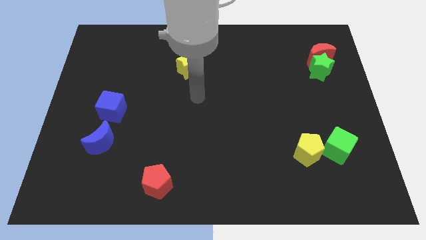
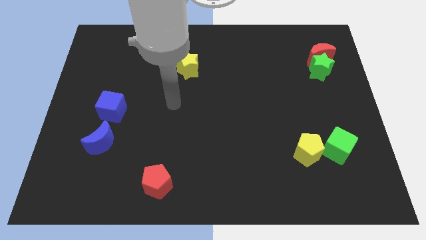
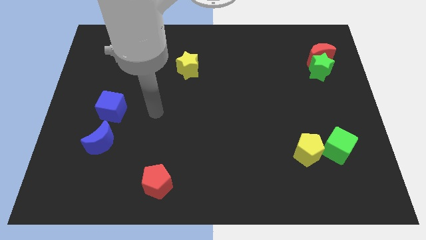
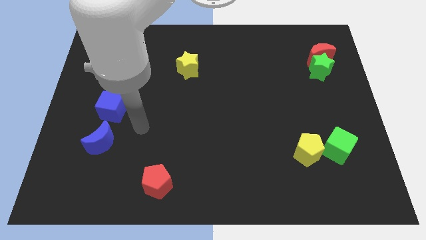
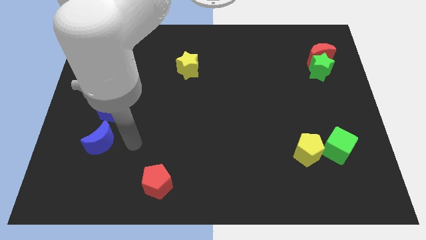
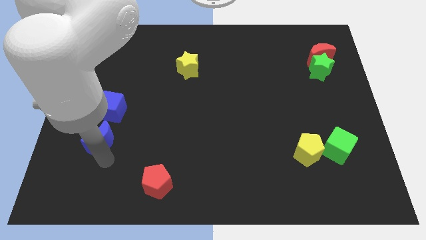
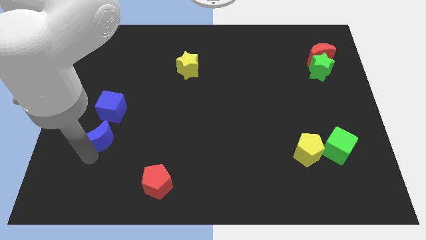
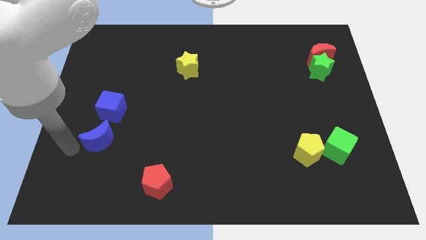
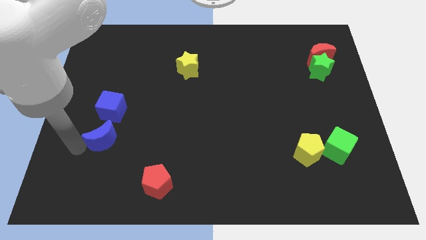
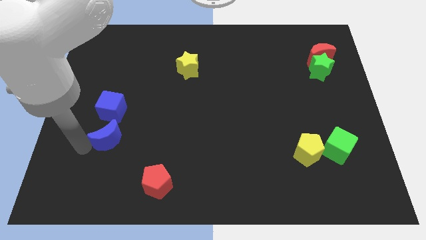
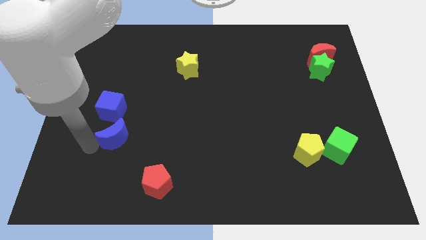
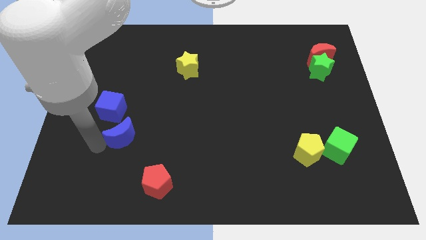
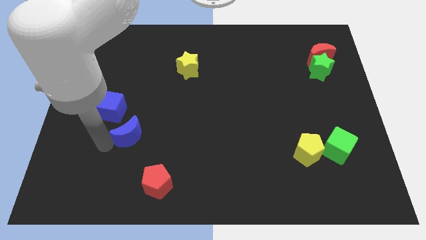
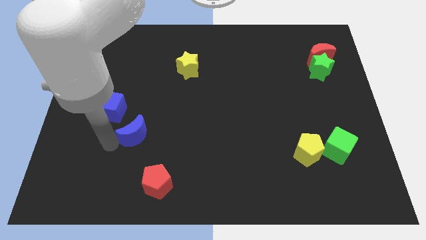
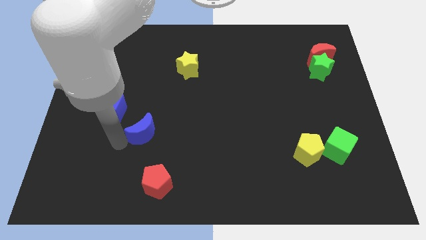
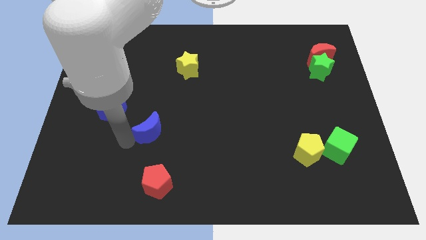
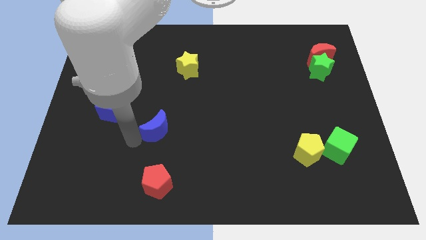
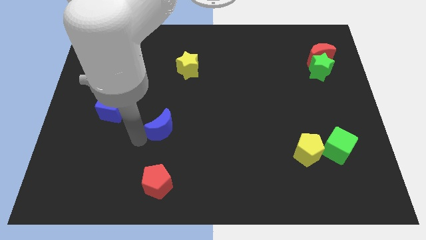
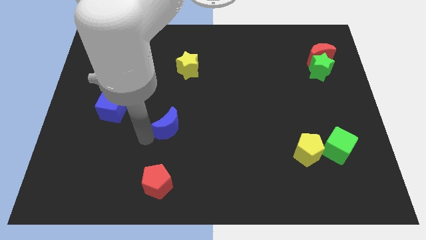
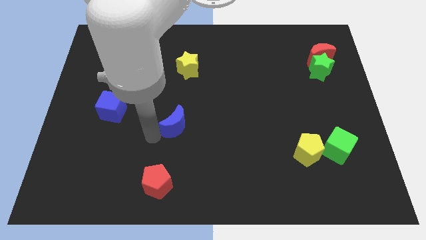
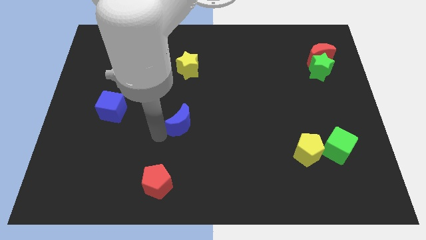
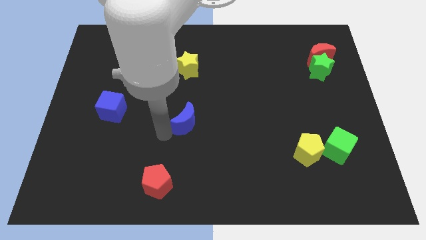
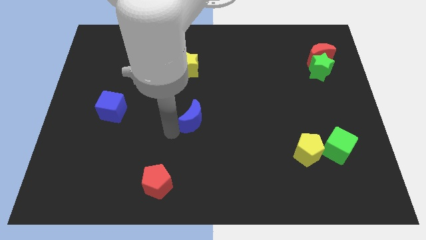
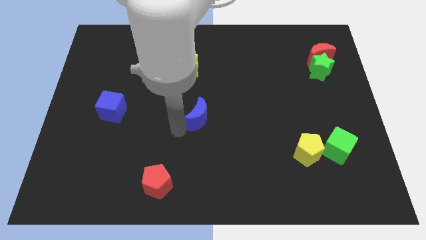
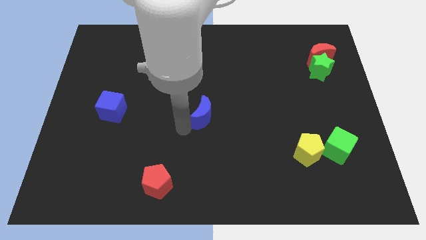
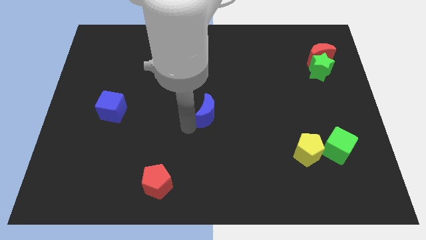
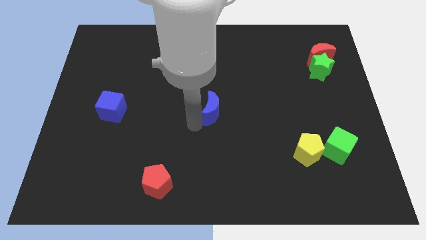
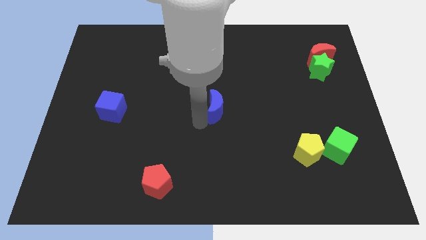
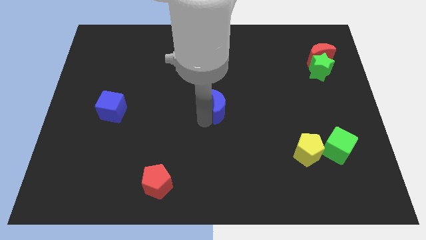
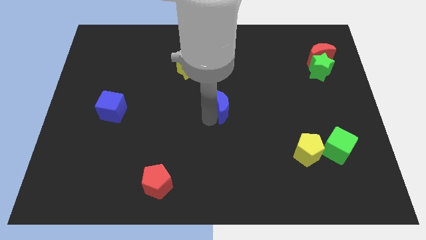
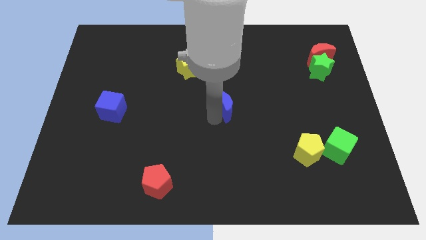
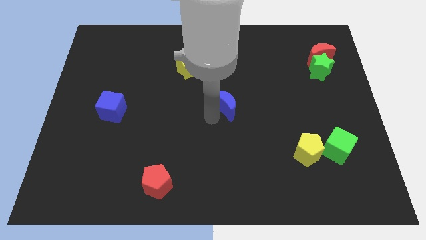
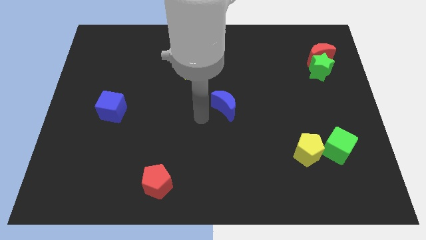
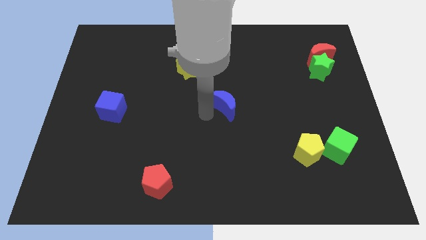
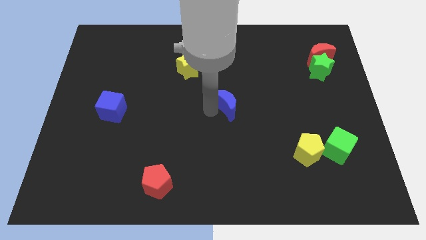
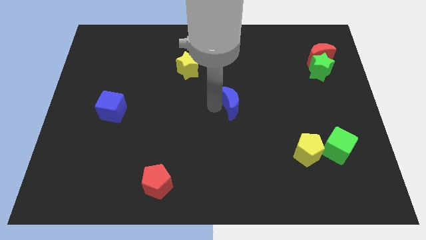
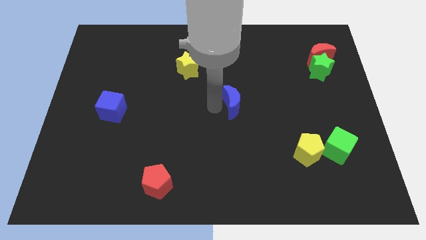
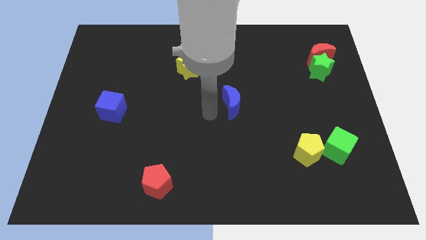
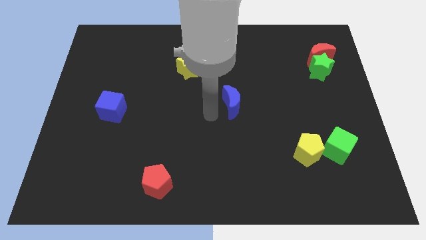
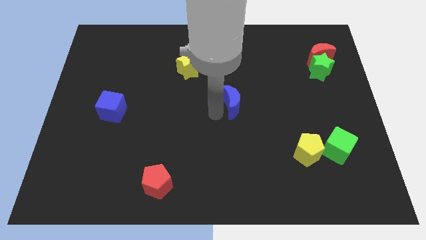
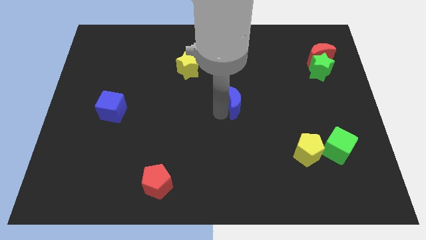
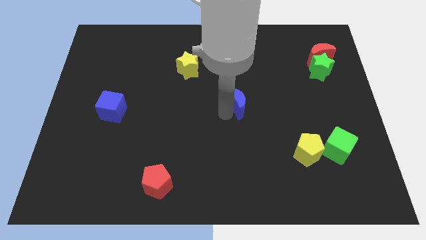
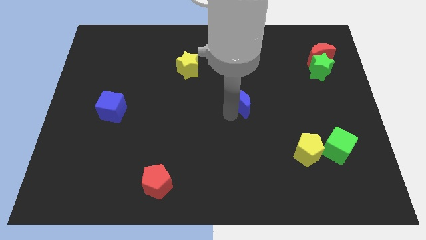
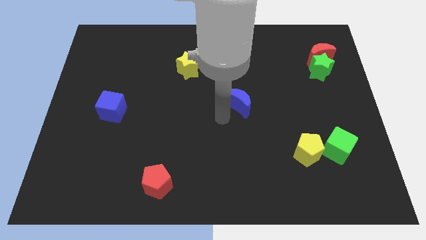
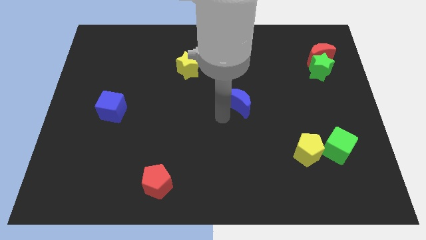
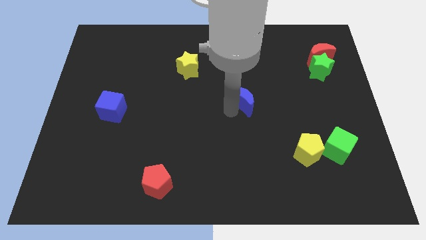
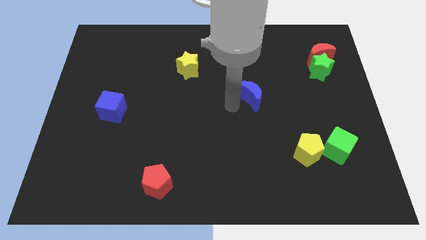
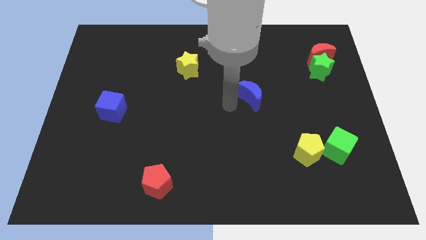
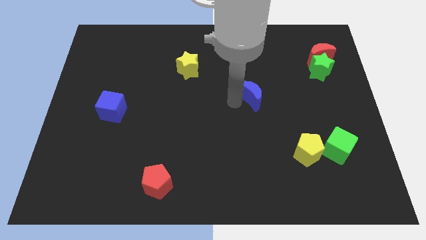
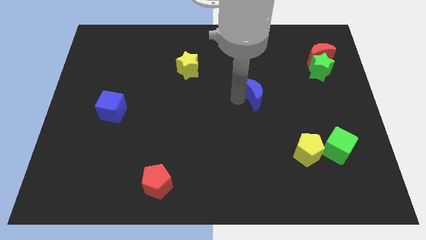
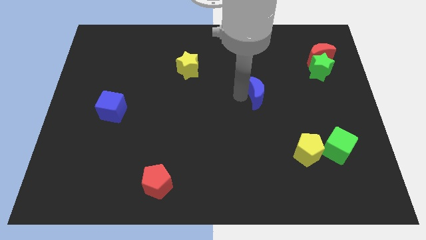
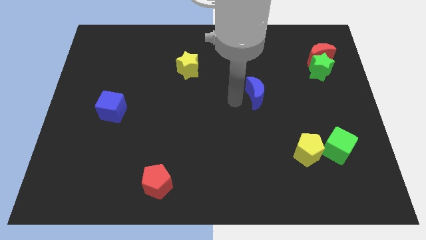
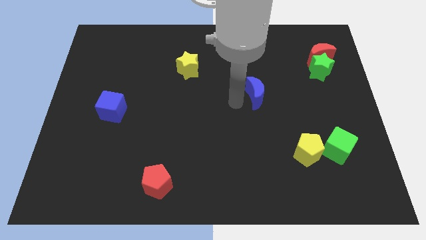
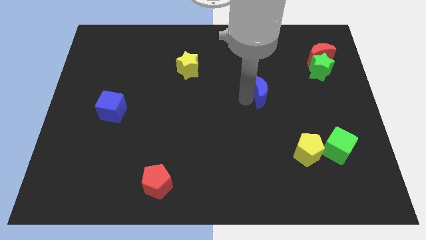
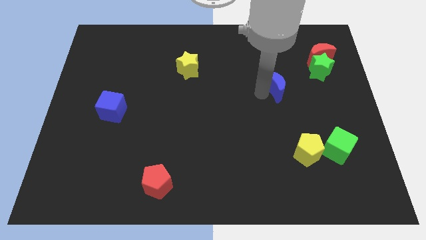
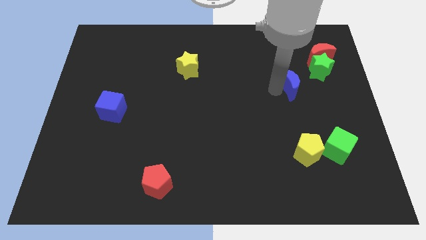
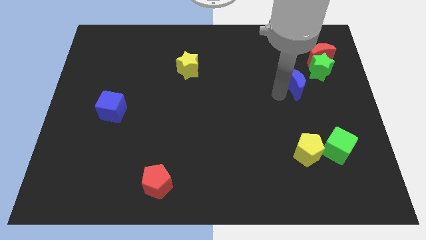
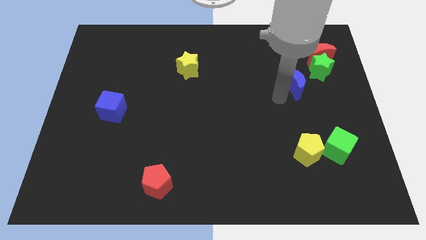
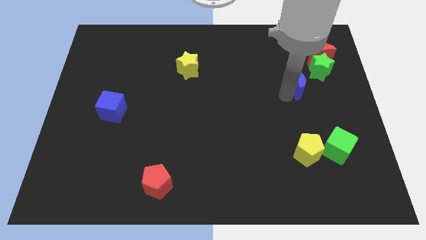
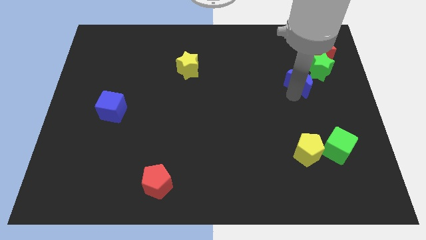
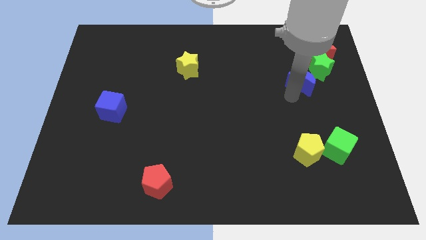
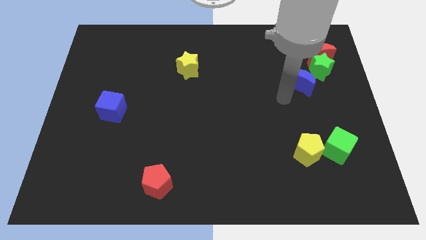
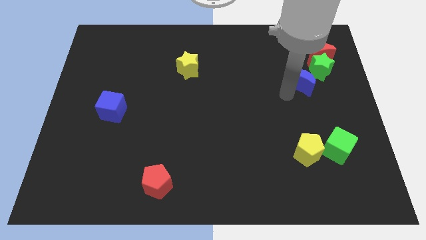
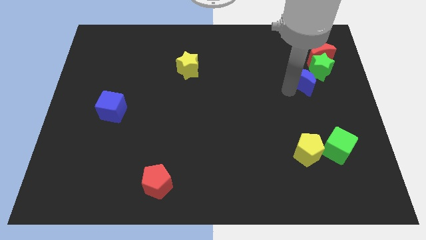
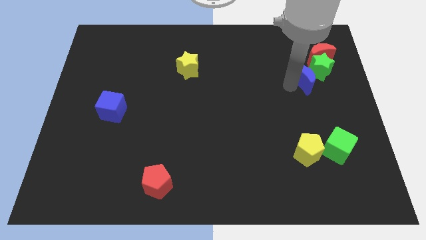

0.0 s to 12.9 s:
slide the blue moon to the green star
